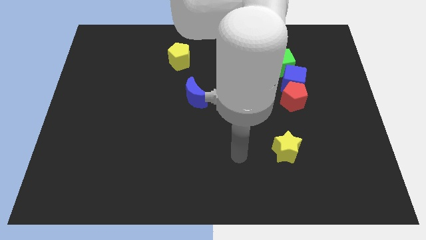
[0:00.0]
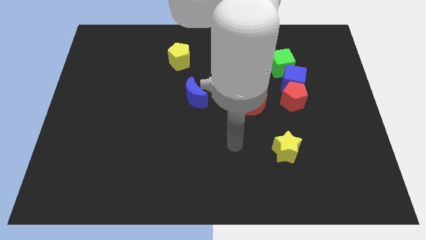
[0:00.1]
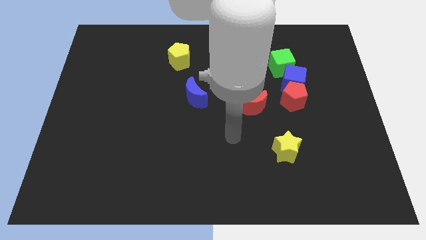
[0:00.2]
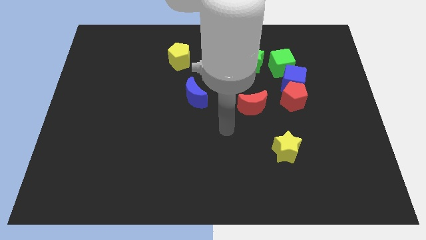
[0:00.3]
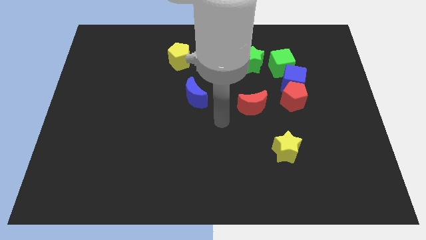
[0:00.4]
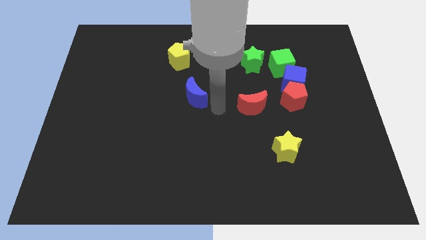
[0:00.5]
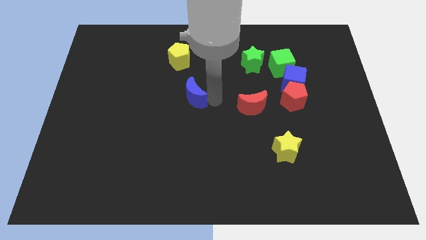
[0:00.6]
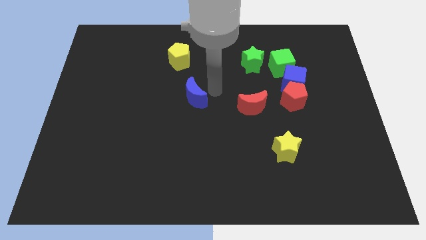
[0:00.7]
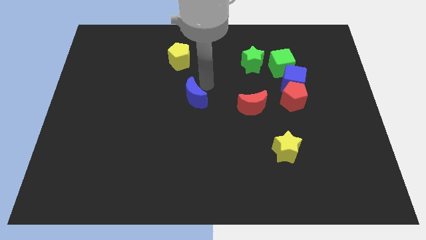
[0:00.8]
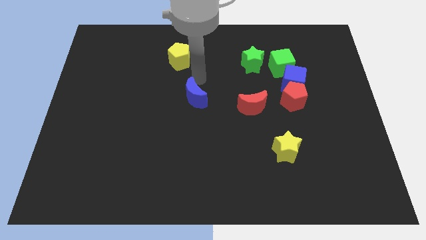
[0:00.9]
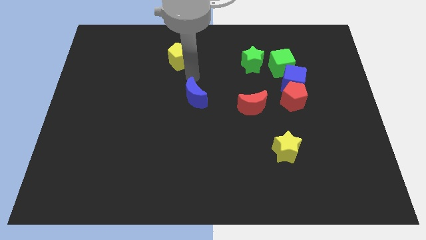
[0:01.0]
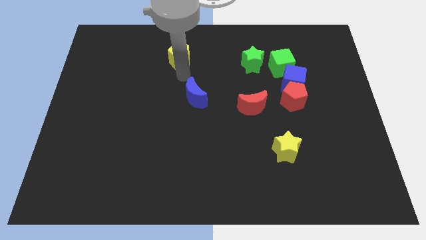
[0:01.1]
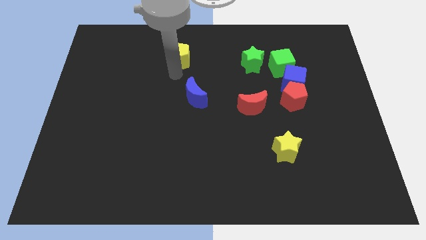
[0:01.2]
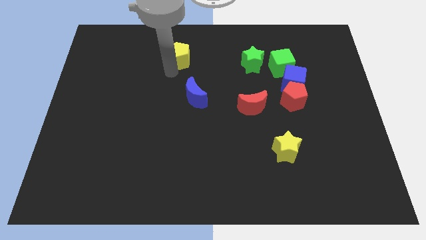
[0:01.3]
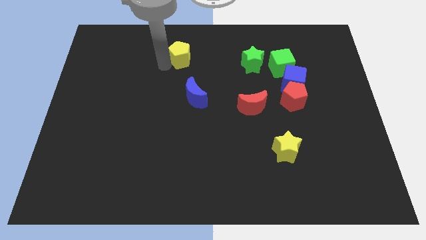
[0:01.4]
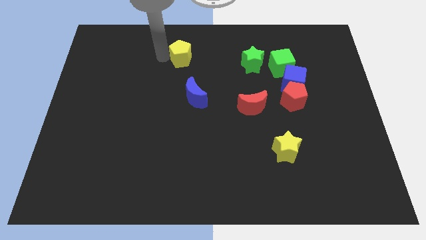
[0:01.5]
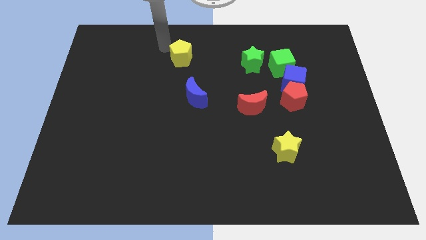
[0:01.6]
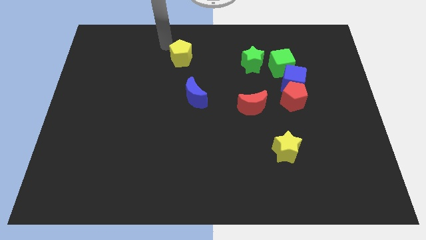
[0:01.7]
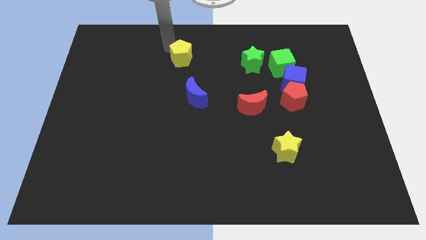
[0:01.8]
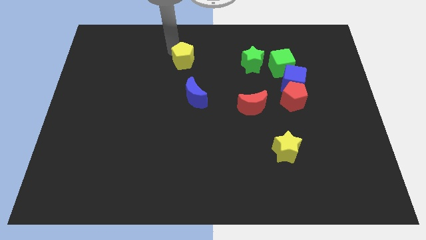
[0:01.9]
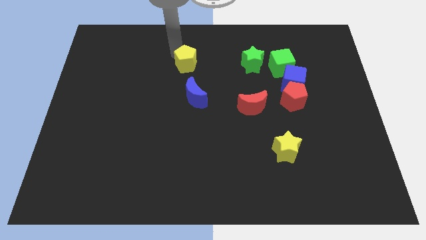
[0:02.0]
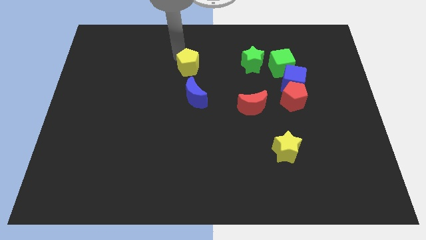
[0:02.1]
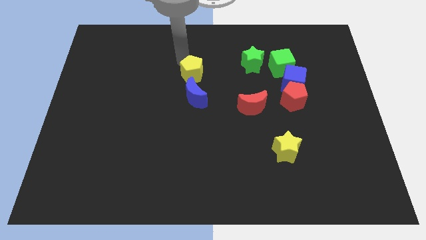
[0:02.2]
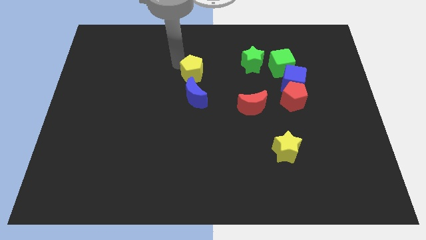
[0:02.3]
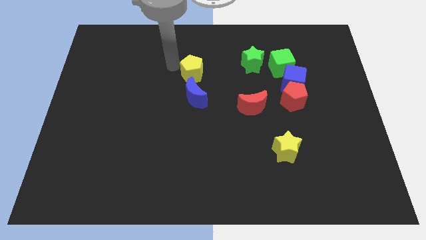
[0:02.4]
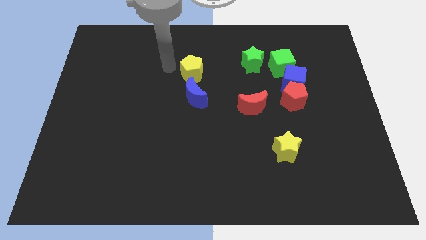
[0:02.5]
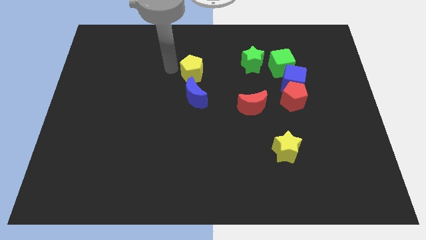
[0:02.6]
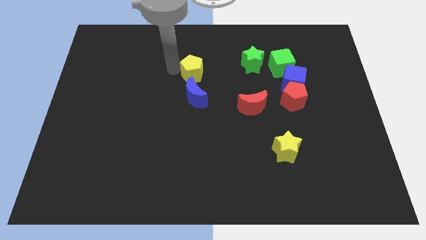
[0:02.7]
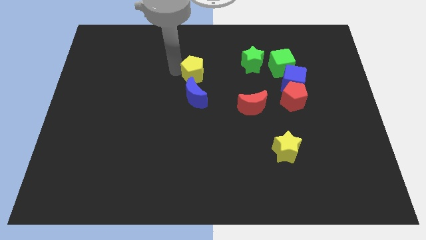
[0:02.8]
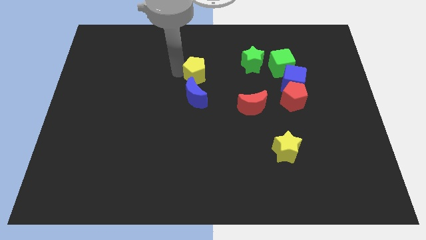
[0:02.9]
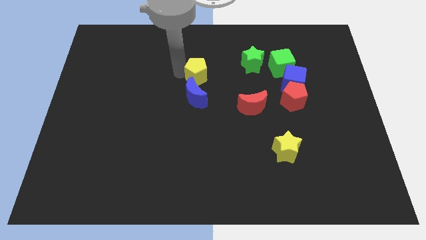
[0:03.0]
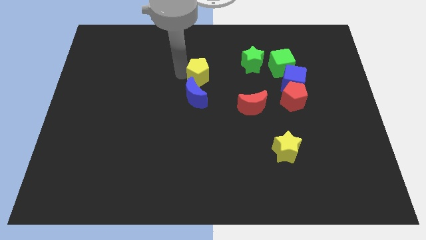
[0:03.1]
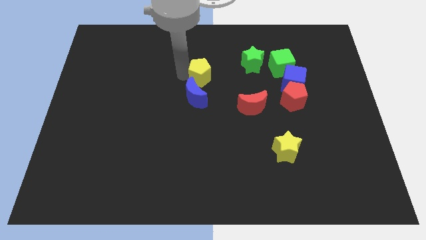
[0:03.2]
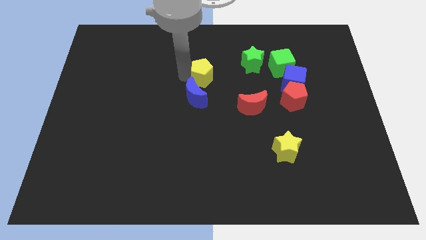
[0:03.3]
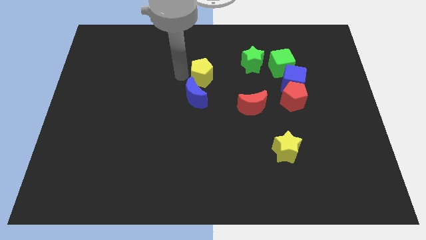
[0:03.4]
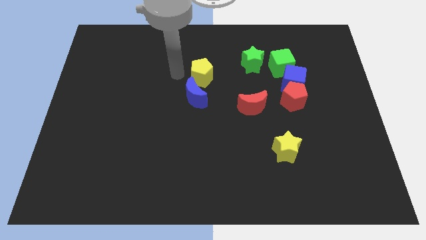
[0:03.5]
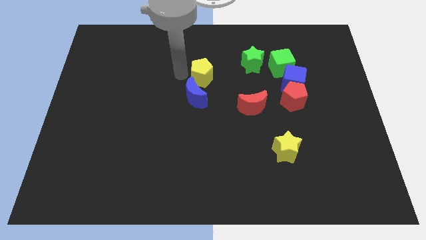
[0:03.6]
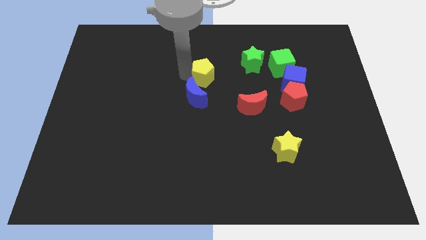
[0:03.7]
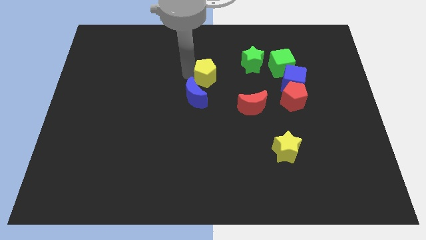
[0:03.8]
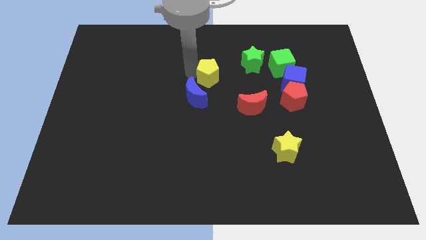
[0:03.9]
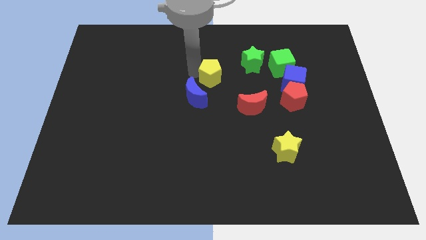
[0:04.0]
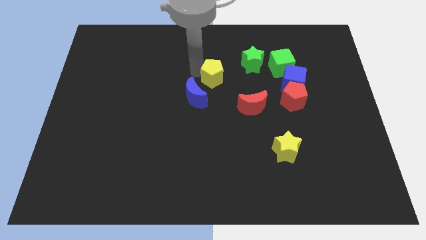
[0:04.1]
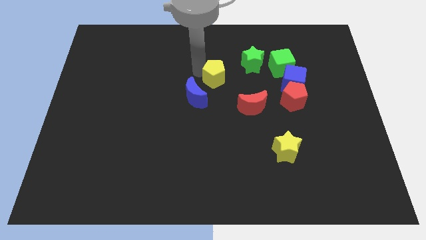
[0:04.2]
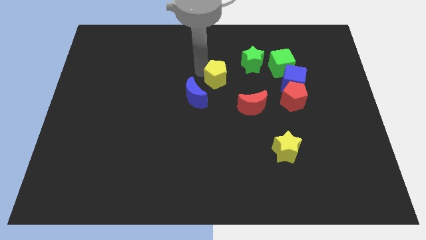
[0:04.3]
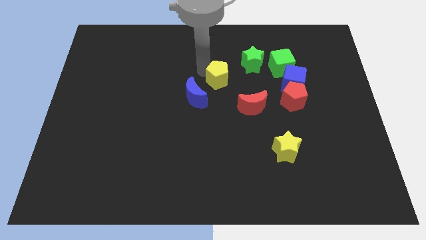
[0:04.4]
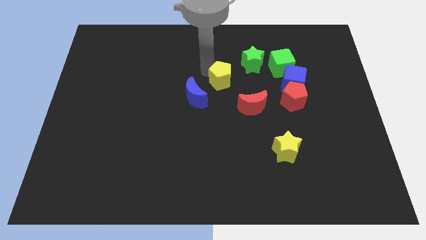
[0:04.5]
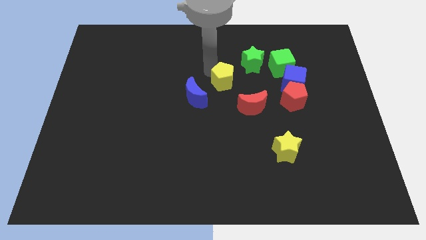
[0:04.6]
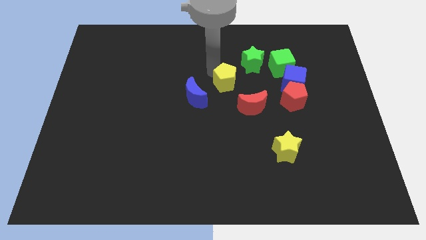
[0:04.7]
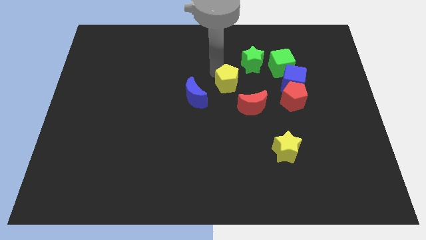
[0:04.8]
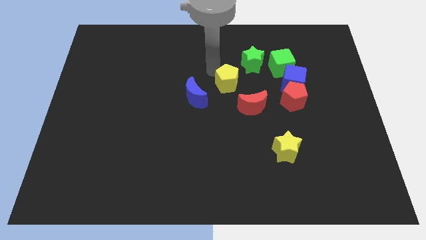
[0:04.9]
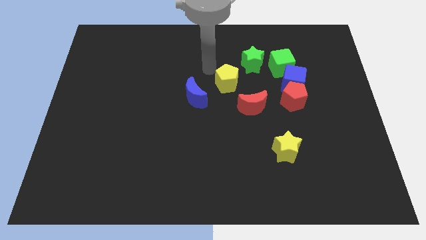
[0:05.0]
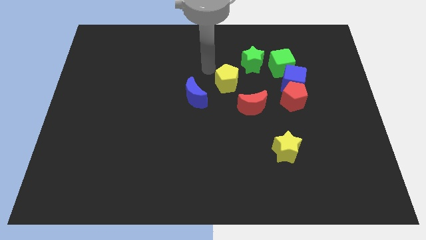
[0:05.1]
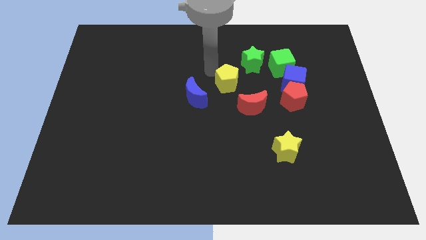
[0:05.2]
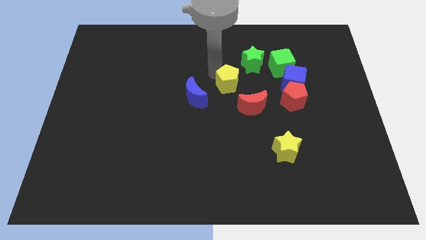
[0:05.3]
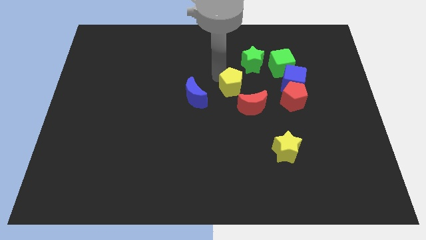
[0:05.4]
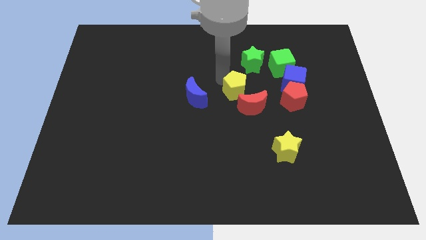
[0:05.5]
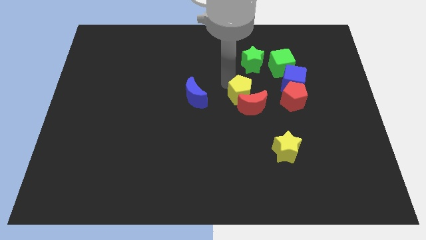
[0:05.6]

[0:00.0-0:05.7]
slide the yellow pentagon to the red moon

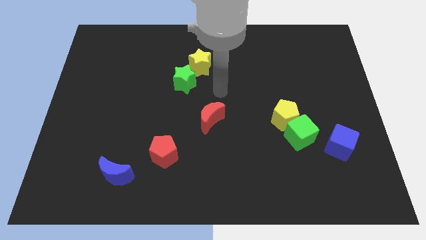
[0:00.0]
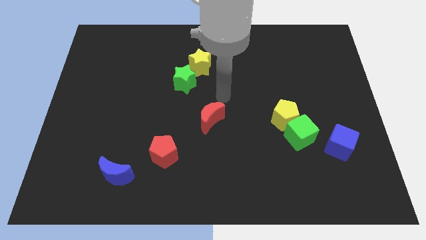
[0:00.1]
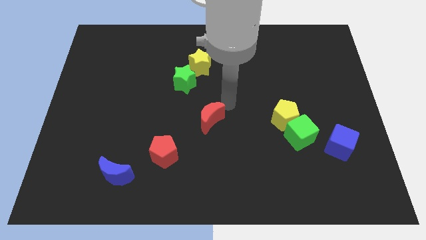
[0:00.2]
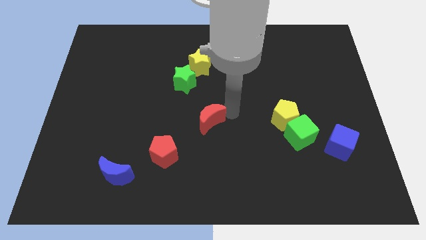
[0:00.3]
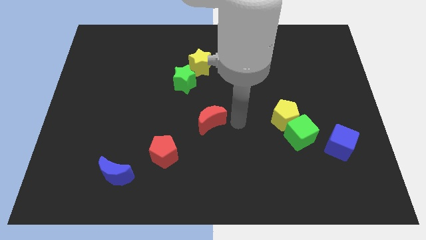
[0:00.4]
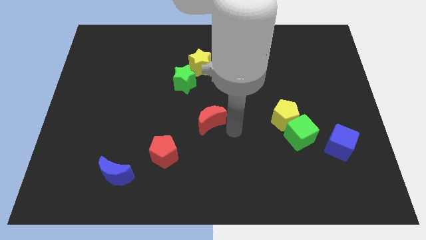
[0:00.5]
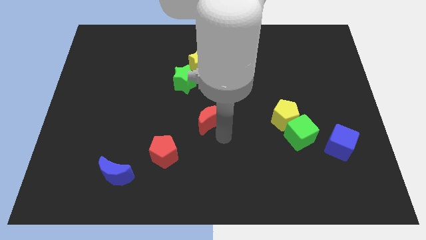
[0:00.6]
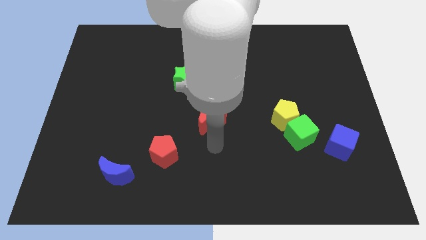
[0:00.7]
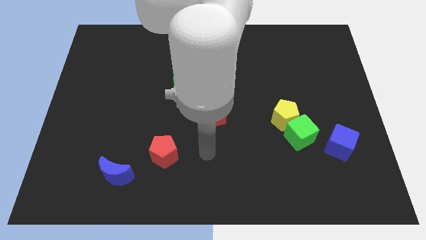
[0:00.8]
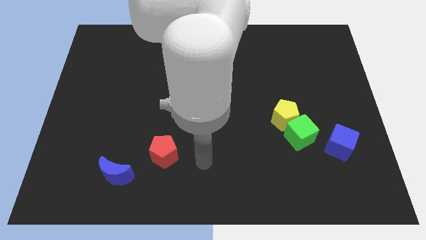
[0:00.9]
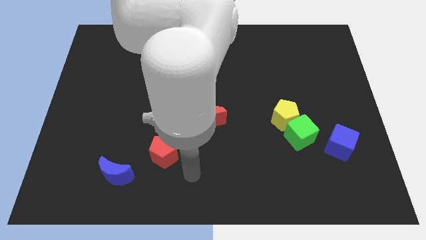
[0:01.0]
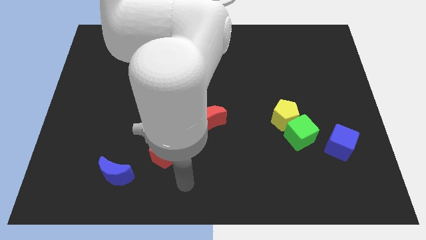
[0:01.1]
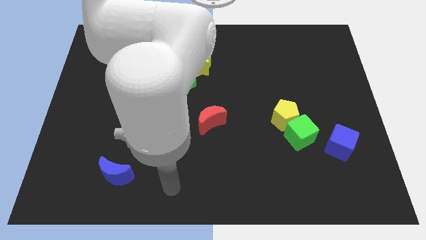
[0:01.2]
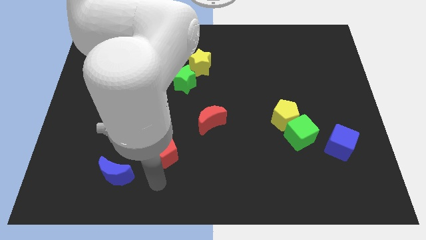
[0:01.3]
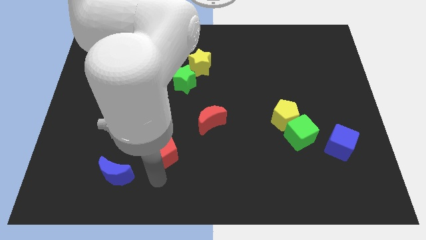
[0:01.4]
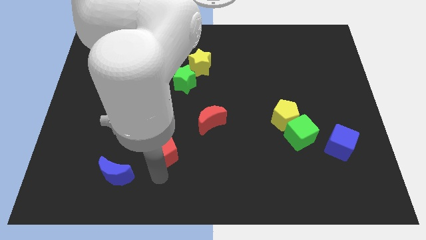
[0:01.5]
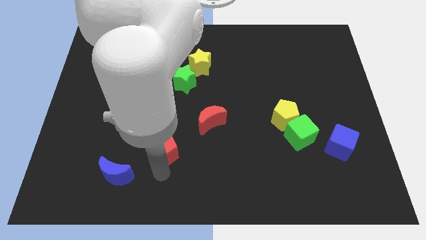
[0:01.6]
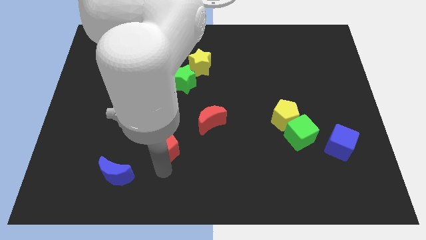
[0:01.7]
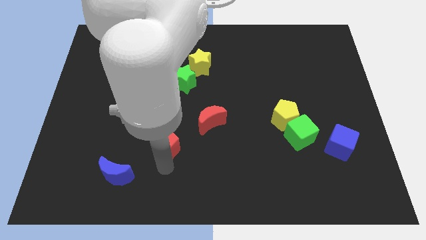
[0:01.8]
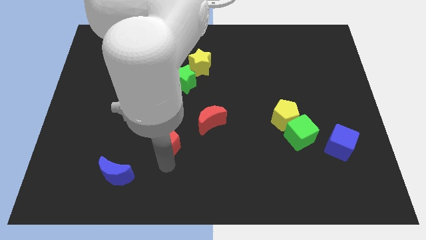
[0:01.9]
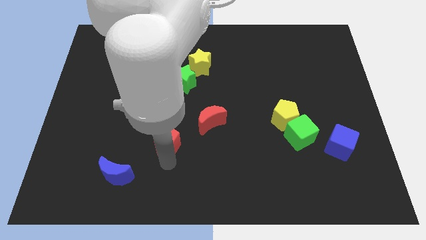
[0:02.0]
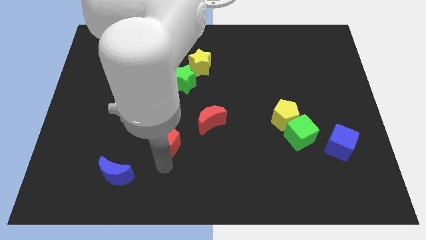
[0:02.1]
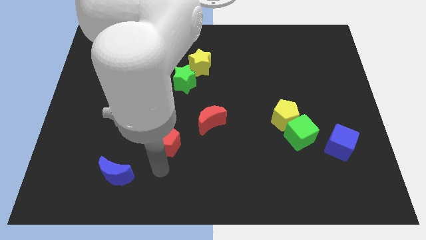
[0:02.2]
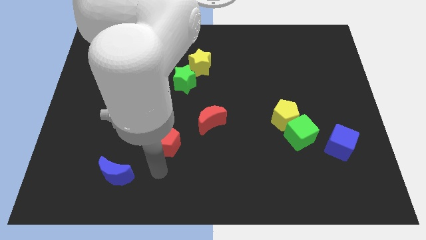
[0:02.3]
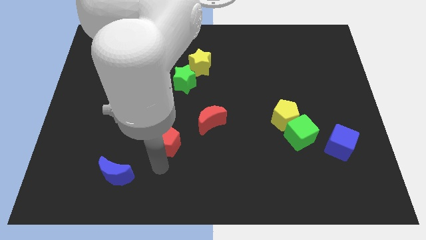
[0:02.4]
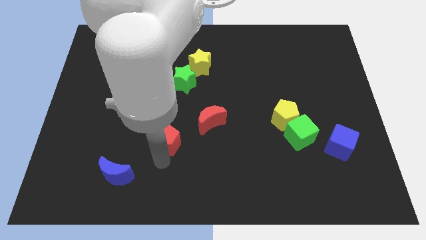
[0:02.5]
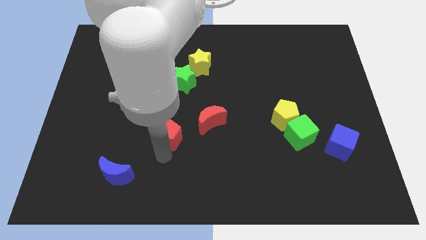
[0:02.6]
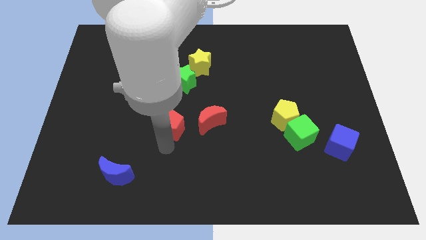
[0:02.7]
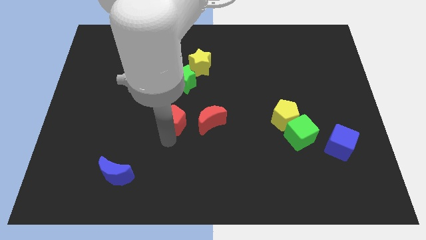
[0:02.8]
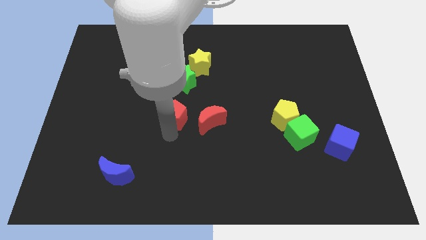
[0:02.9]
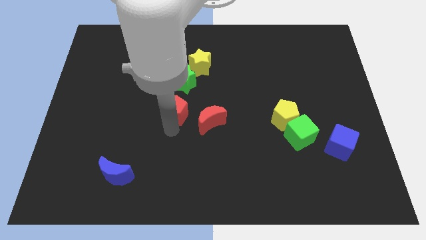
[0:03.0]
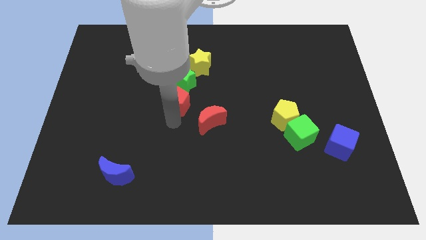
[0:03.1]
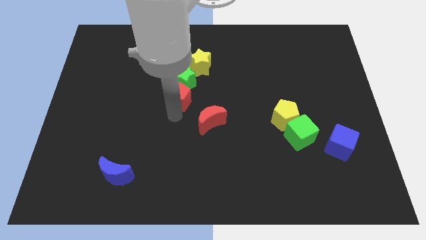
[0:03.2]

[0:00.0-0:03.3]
put the red pentagon towards the green star
